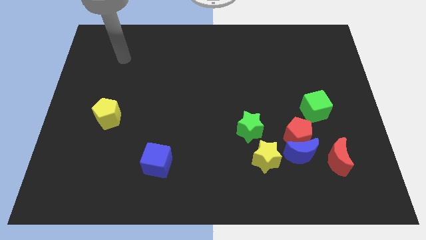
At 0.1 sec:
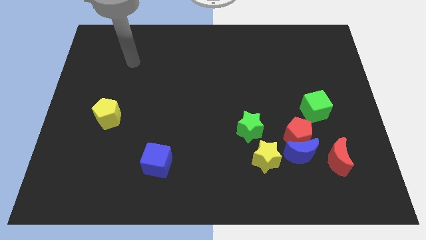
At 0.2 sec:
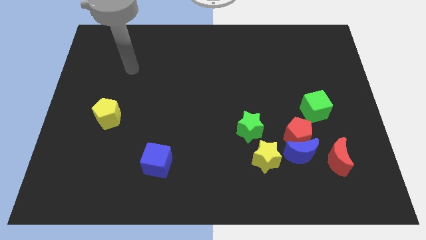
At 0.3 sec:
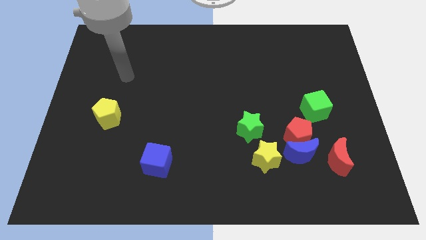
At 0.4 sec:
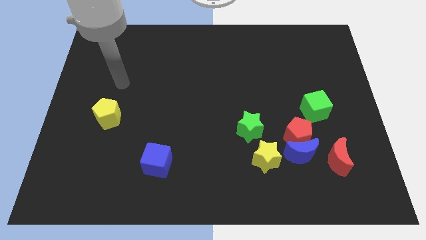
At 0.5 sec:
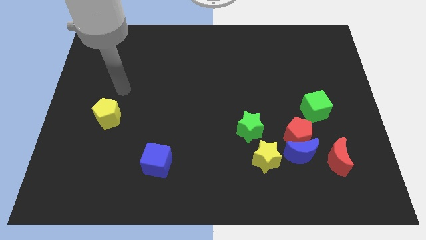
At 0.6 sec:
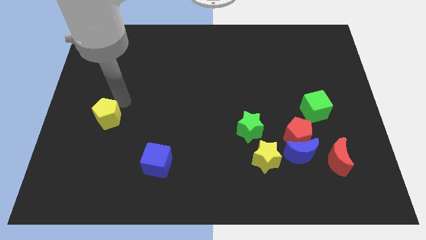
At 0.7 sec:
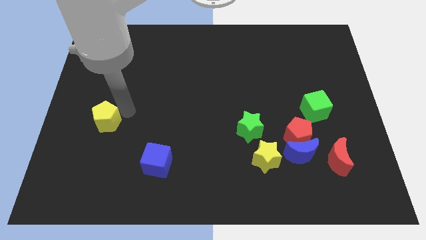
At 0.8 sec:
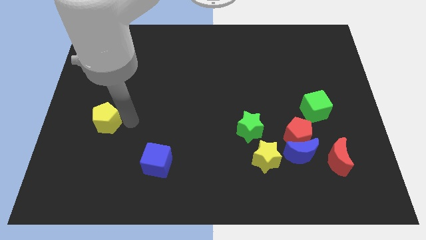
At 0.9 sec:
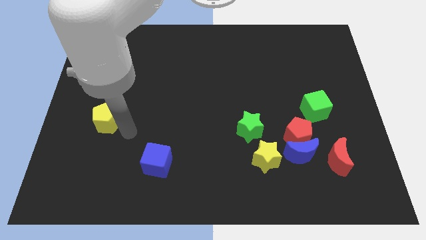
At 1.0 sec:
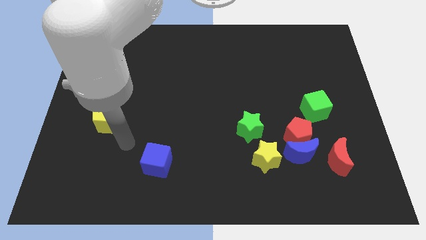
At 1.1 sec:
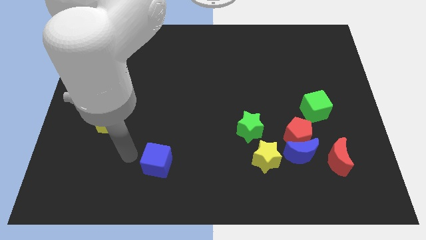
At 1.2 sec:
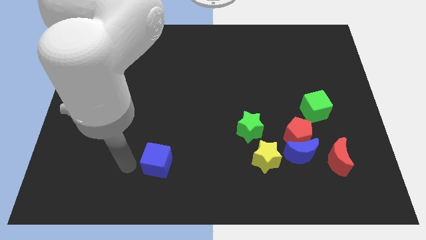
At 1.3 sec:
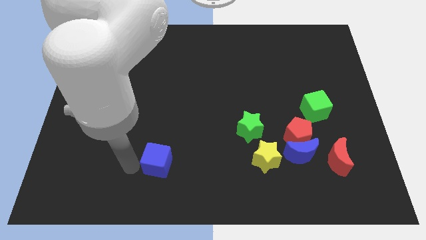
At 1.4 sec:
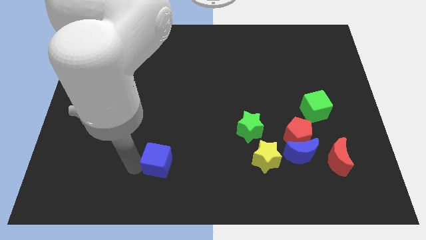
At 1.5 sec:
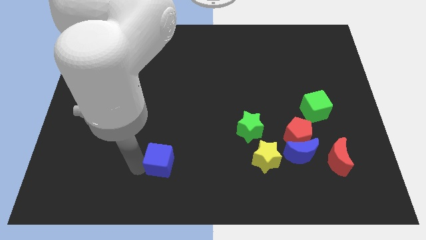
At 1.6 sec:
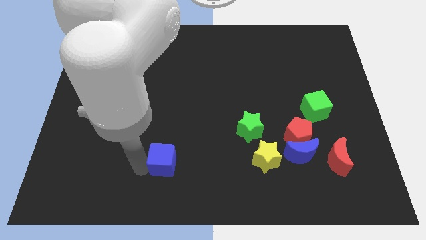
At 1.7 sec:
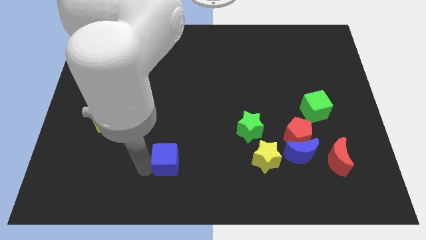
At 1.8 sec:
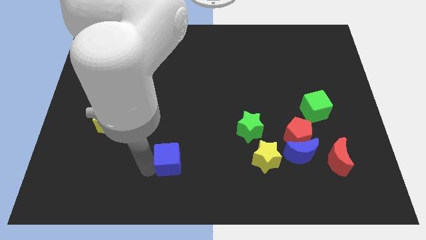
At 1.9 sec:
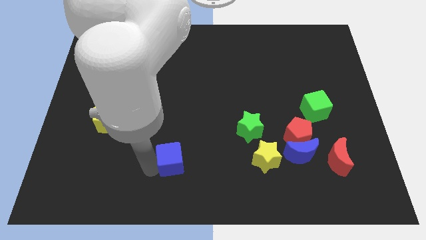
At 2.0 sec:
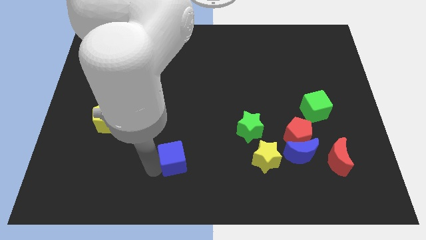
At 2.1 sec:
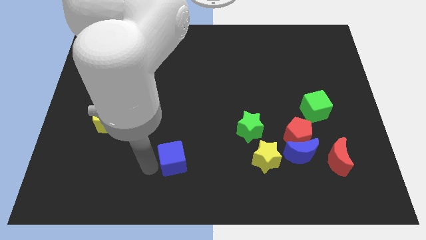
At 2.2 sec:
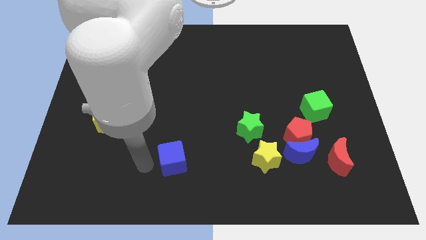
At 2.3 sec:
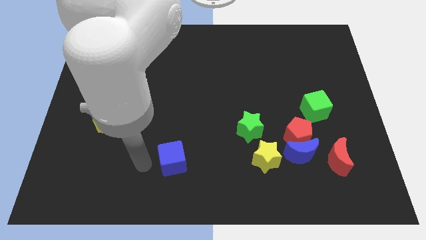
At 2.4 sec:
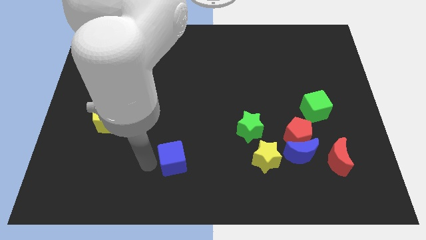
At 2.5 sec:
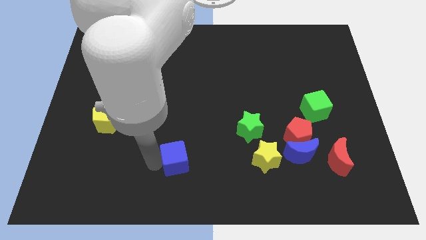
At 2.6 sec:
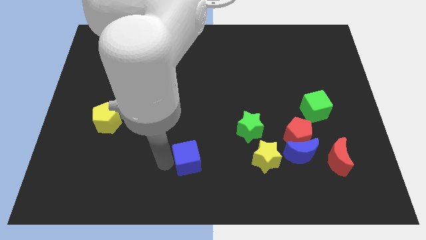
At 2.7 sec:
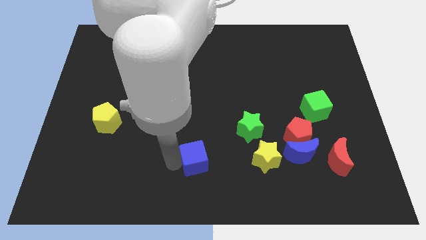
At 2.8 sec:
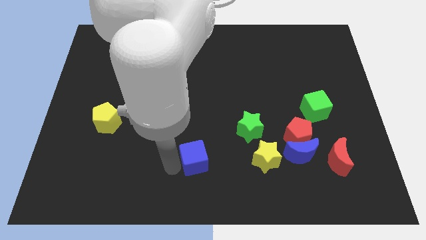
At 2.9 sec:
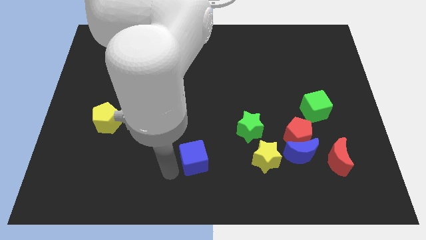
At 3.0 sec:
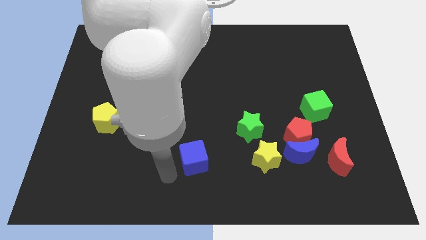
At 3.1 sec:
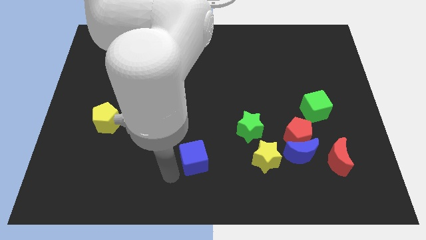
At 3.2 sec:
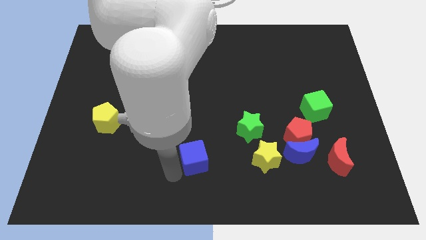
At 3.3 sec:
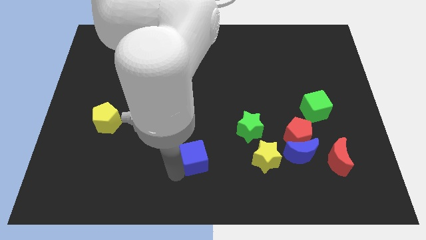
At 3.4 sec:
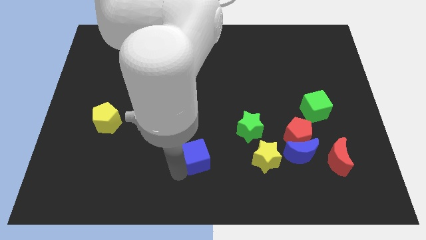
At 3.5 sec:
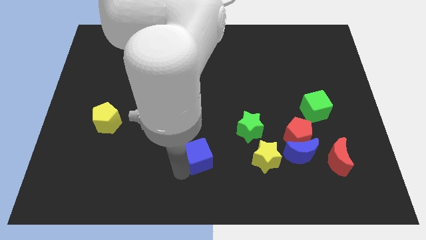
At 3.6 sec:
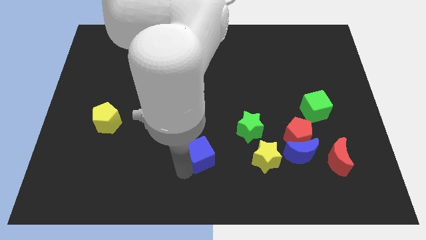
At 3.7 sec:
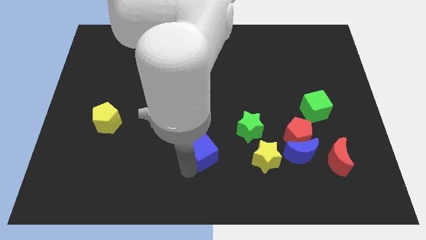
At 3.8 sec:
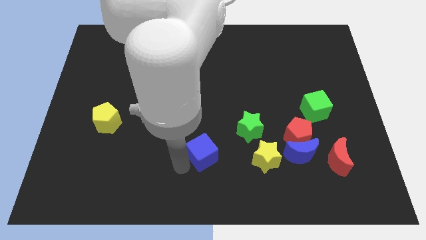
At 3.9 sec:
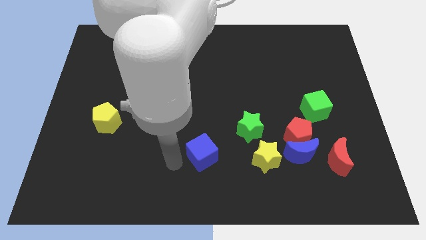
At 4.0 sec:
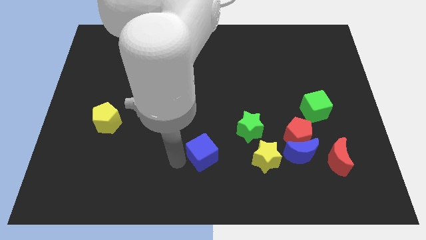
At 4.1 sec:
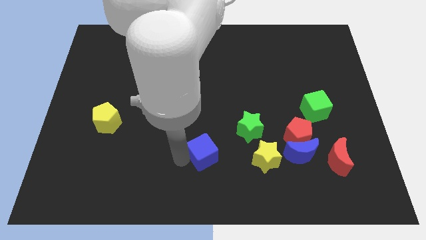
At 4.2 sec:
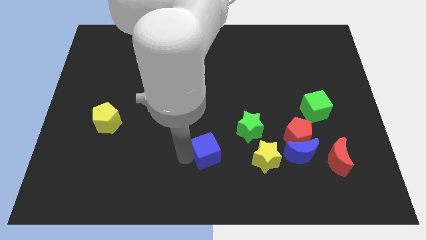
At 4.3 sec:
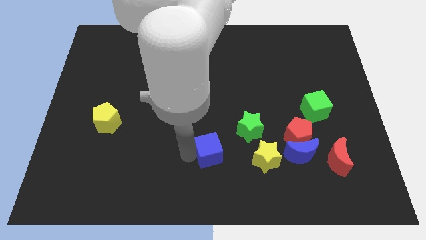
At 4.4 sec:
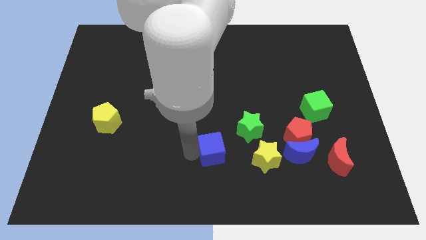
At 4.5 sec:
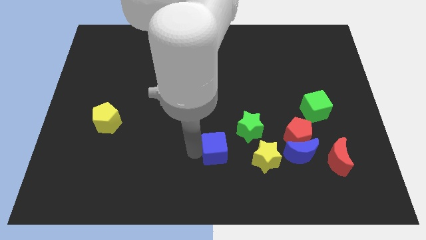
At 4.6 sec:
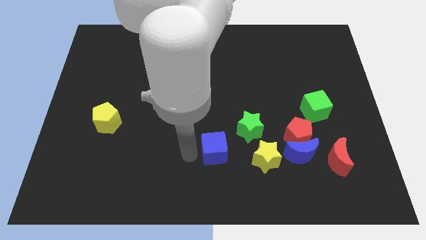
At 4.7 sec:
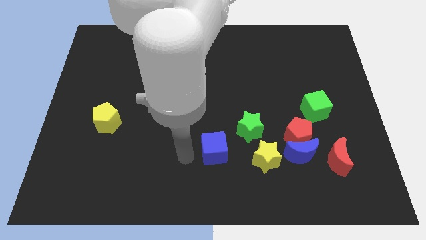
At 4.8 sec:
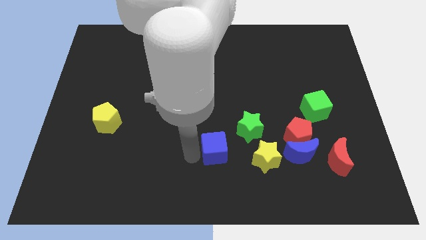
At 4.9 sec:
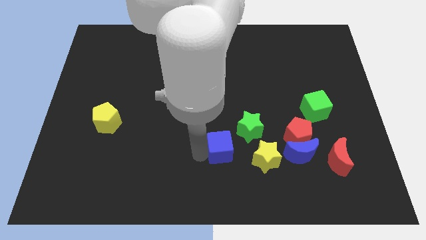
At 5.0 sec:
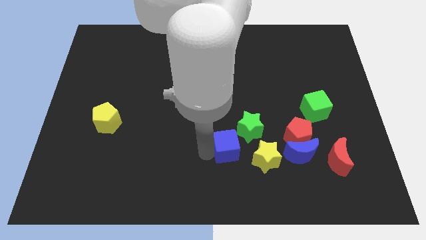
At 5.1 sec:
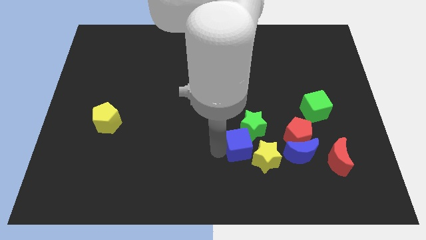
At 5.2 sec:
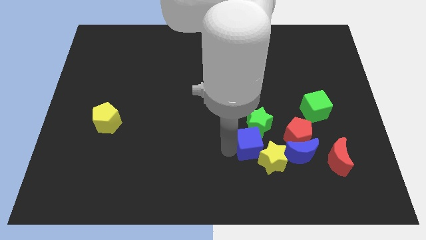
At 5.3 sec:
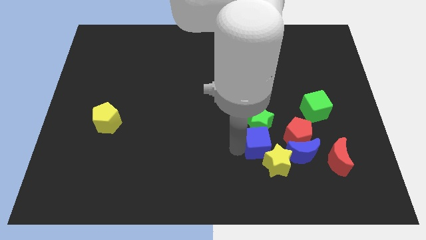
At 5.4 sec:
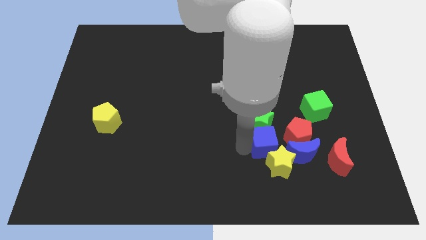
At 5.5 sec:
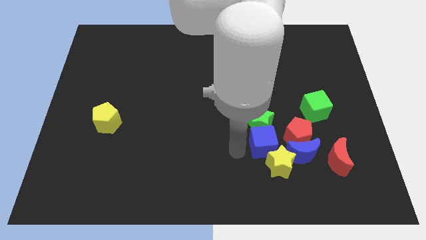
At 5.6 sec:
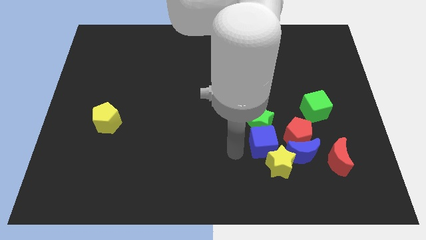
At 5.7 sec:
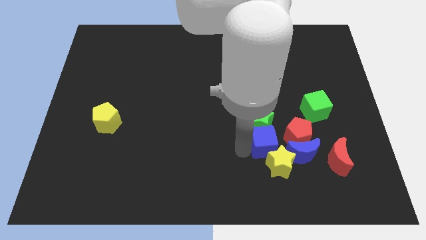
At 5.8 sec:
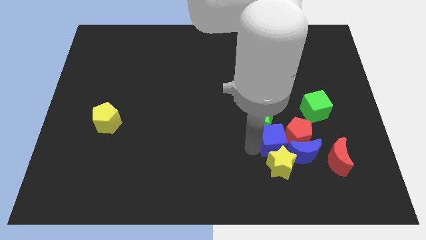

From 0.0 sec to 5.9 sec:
push the blue cube to the red pentagon

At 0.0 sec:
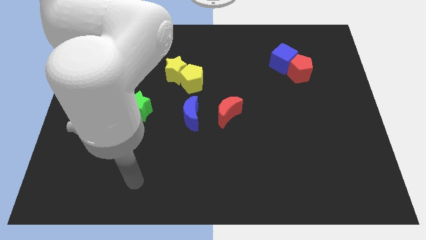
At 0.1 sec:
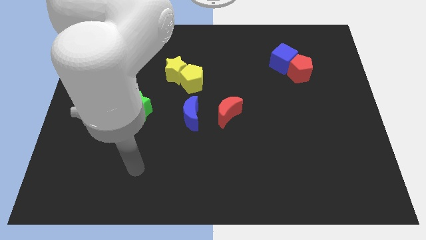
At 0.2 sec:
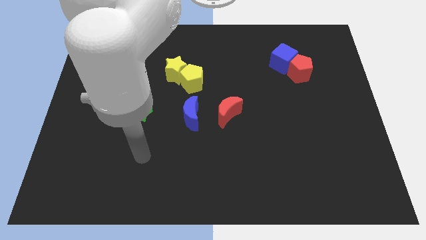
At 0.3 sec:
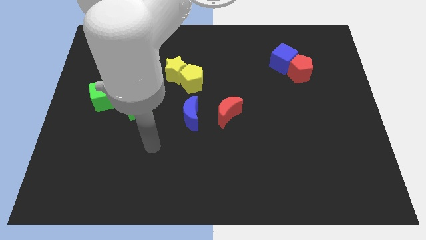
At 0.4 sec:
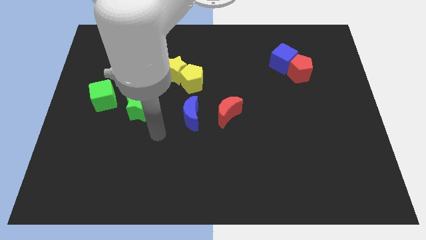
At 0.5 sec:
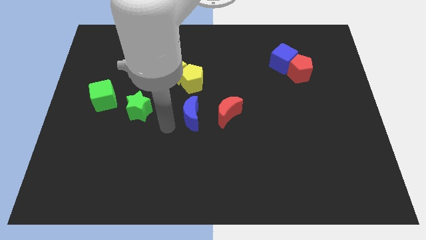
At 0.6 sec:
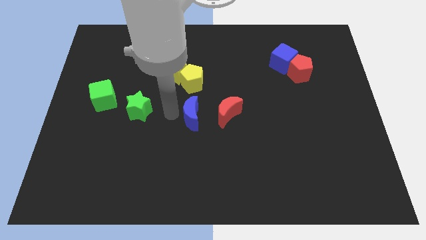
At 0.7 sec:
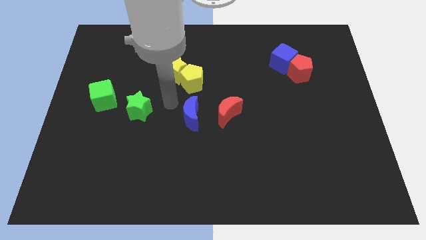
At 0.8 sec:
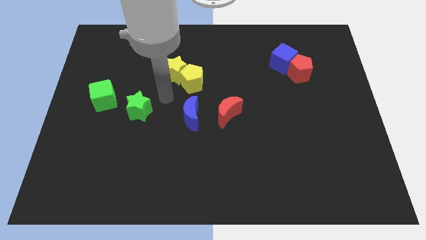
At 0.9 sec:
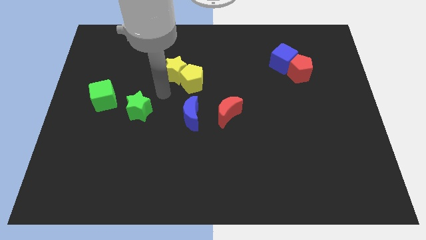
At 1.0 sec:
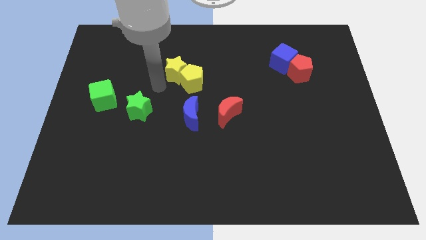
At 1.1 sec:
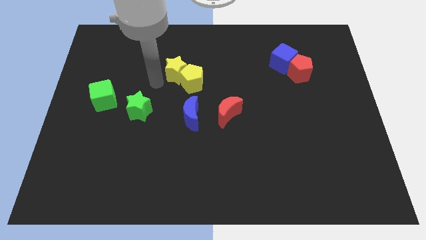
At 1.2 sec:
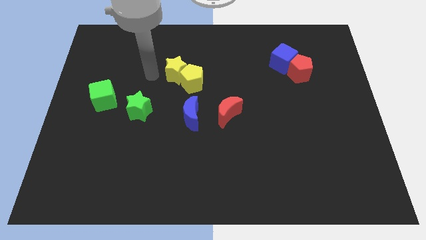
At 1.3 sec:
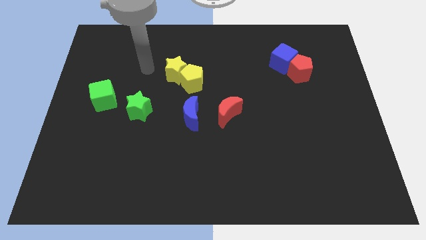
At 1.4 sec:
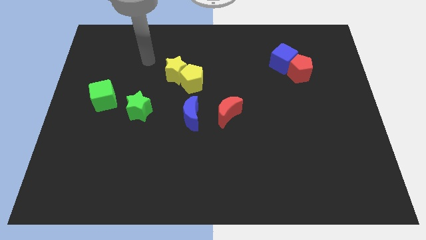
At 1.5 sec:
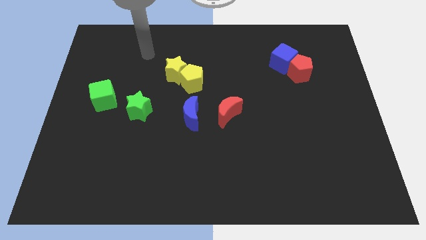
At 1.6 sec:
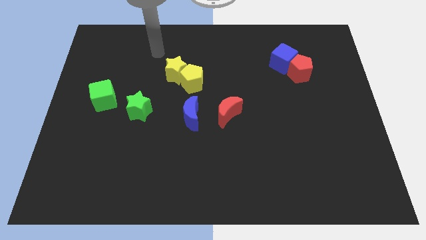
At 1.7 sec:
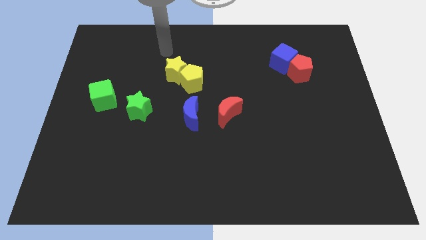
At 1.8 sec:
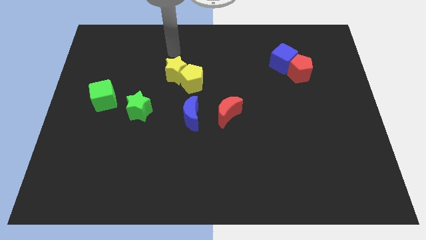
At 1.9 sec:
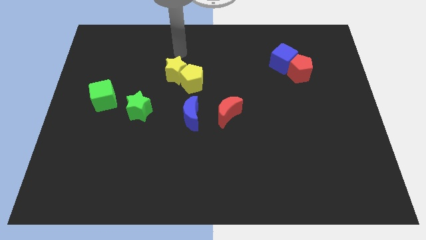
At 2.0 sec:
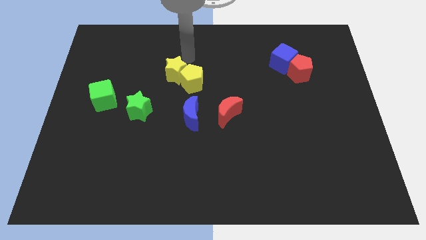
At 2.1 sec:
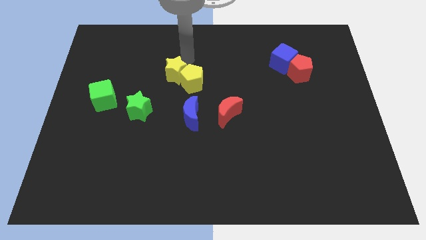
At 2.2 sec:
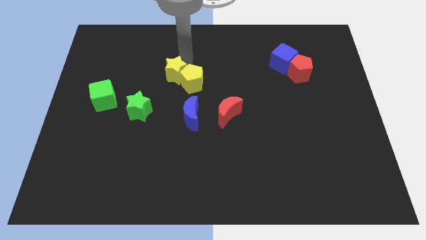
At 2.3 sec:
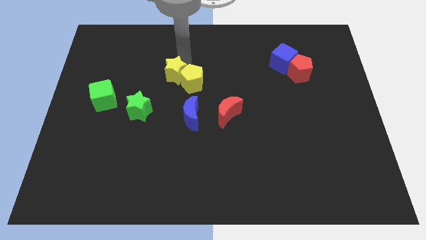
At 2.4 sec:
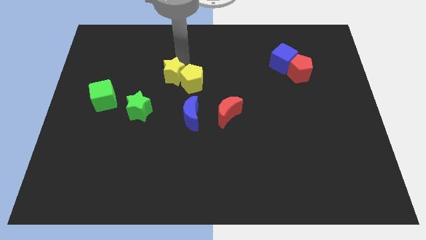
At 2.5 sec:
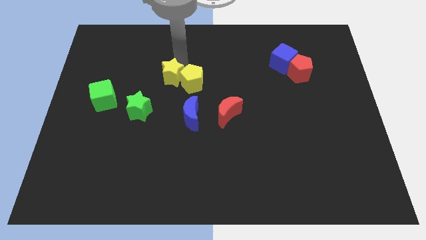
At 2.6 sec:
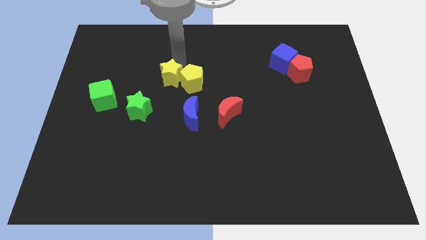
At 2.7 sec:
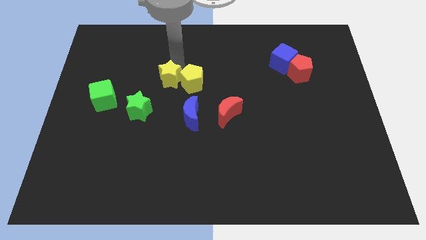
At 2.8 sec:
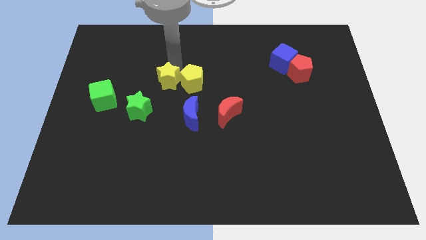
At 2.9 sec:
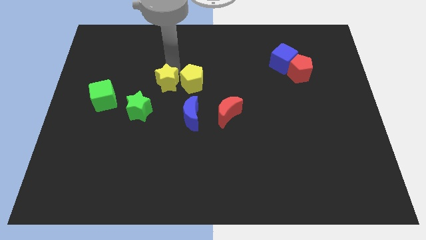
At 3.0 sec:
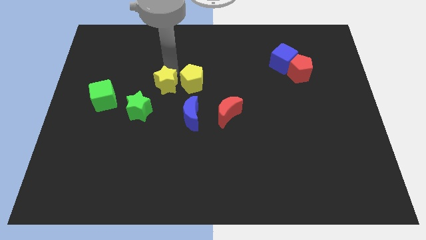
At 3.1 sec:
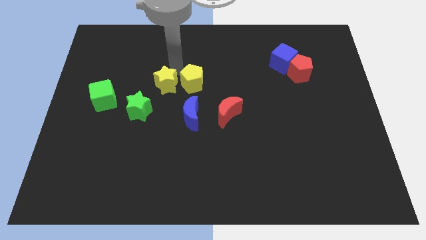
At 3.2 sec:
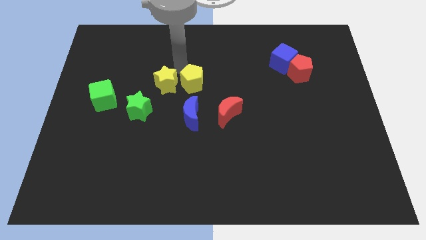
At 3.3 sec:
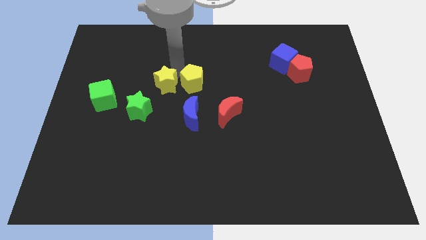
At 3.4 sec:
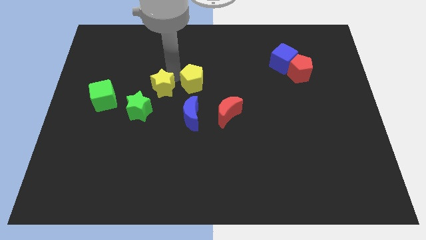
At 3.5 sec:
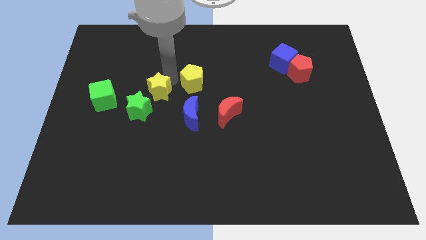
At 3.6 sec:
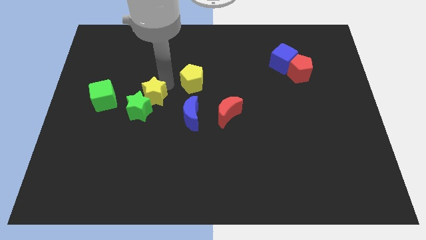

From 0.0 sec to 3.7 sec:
slide the yellow star close to the green star
